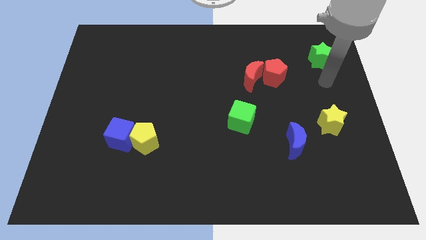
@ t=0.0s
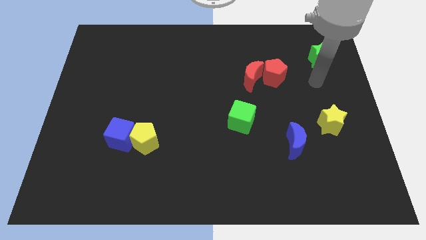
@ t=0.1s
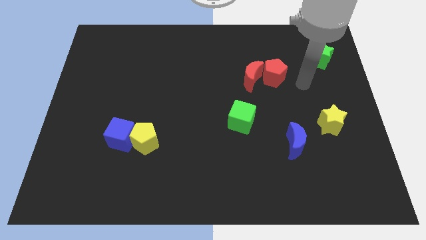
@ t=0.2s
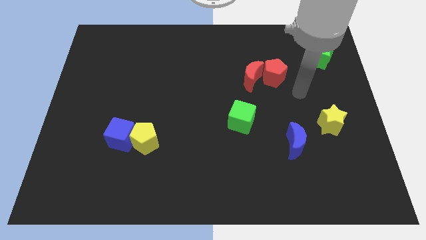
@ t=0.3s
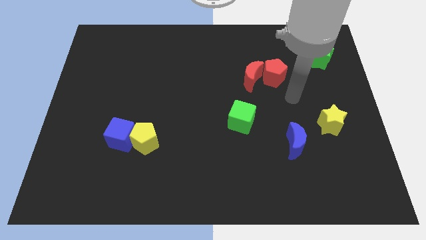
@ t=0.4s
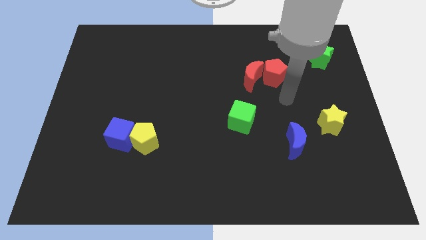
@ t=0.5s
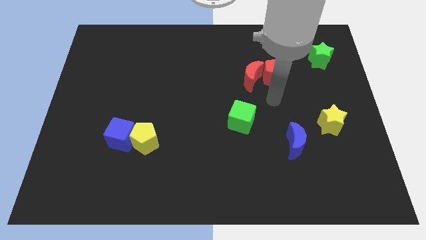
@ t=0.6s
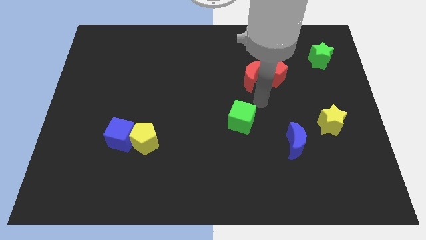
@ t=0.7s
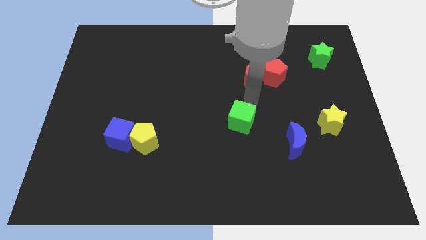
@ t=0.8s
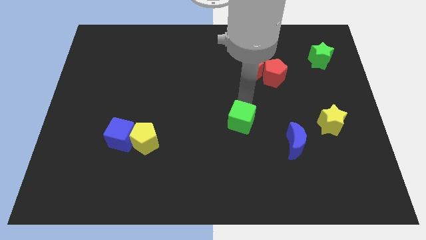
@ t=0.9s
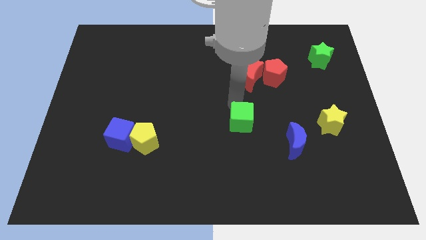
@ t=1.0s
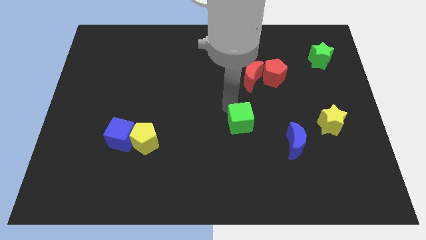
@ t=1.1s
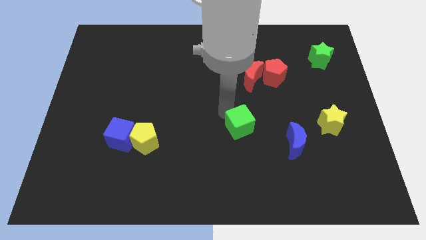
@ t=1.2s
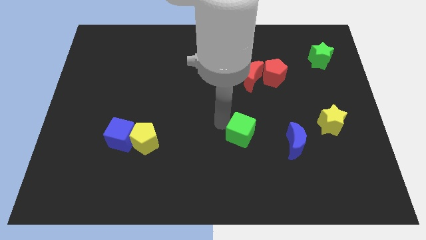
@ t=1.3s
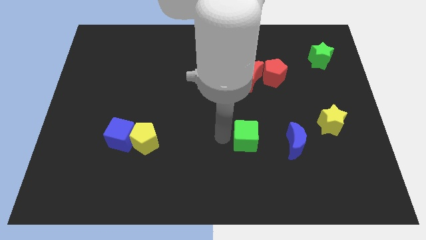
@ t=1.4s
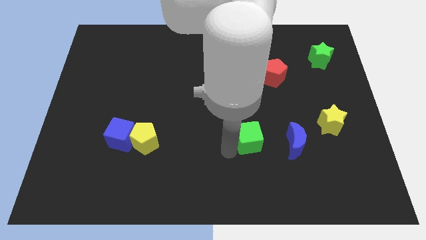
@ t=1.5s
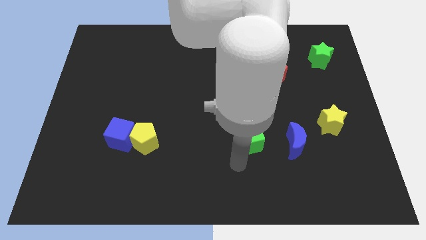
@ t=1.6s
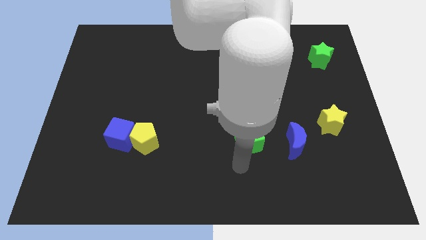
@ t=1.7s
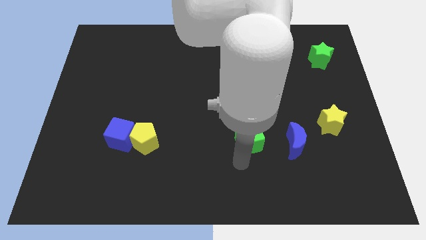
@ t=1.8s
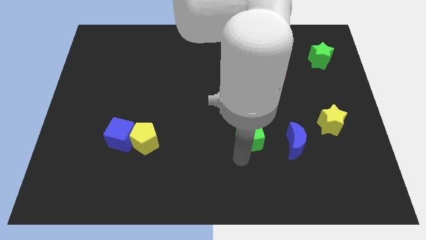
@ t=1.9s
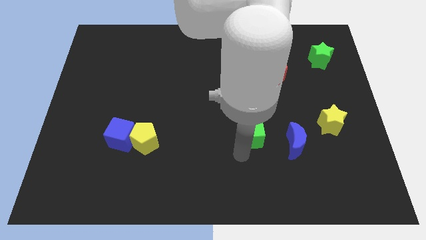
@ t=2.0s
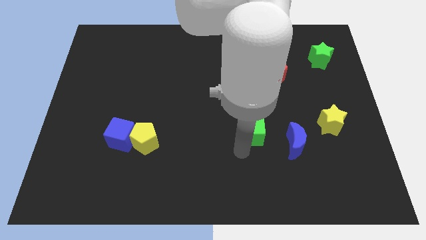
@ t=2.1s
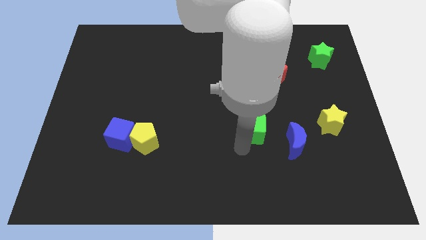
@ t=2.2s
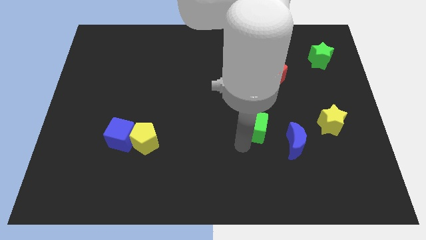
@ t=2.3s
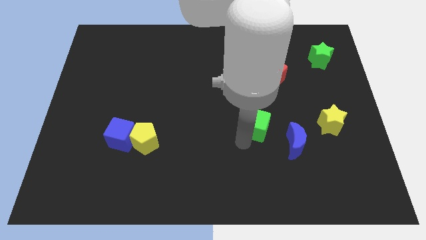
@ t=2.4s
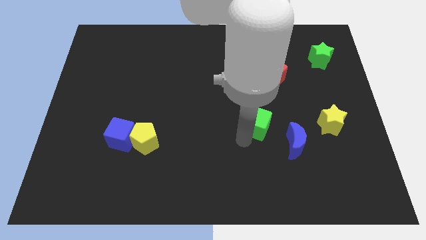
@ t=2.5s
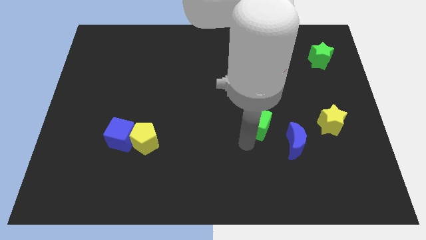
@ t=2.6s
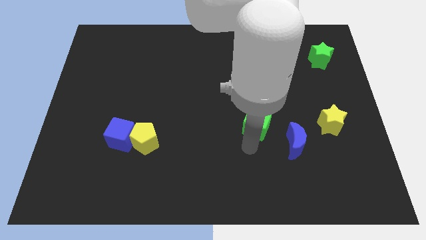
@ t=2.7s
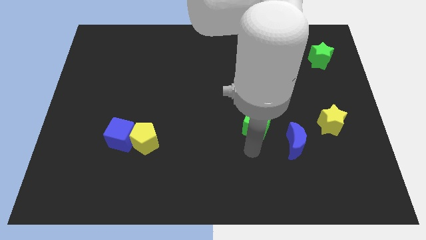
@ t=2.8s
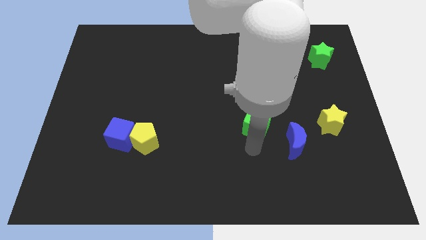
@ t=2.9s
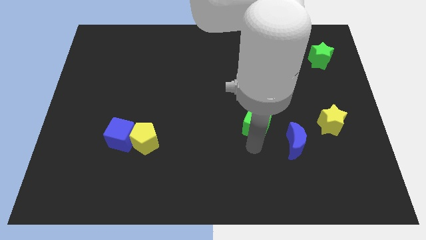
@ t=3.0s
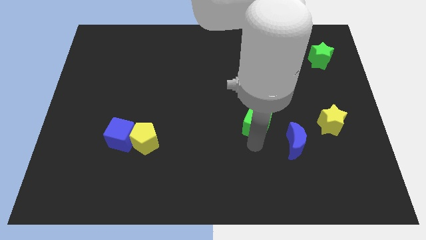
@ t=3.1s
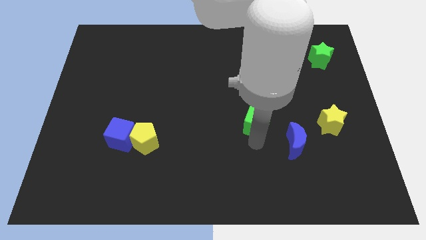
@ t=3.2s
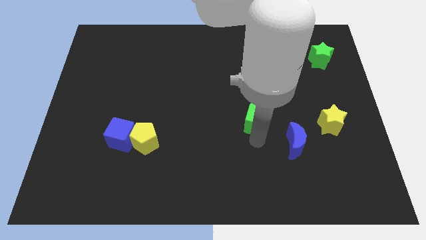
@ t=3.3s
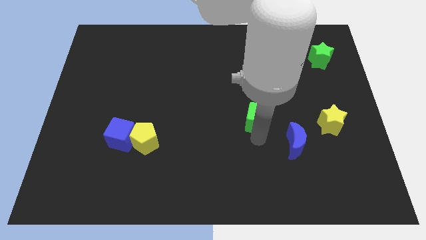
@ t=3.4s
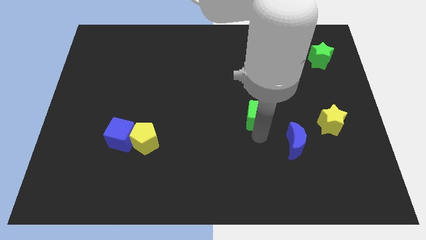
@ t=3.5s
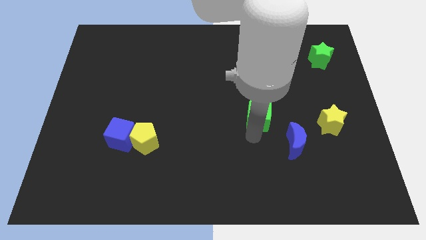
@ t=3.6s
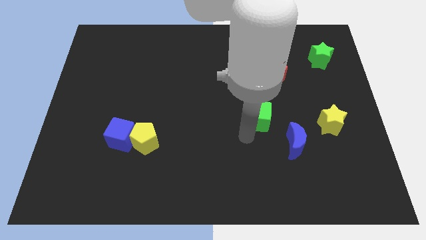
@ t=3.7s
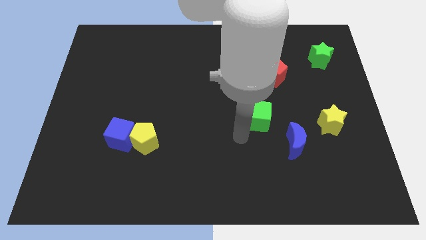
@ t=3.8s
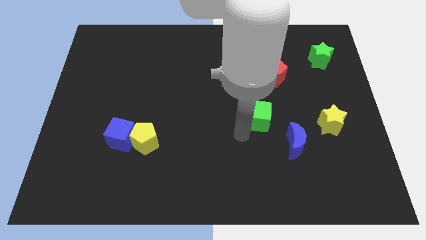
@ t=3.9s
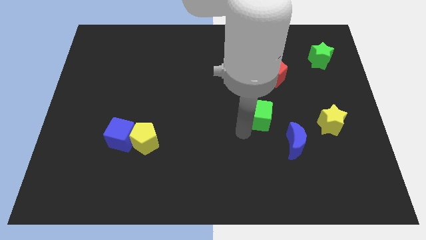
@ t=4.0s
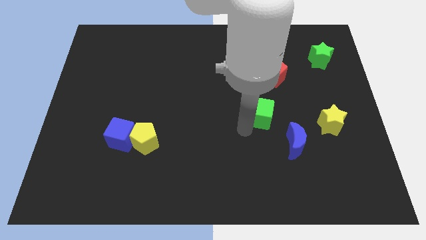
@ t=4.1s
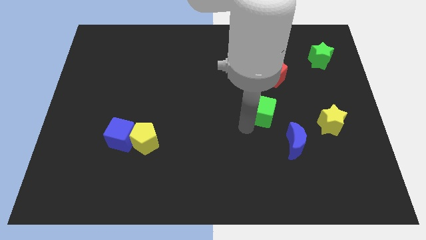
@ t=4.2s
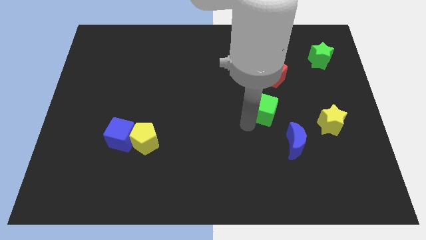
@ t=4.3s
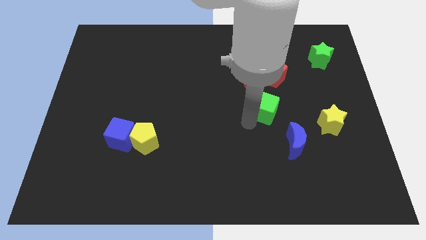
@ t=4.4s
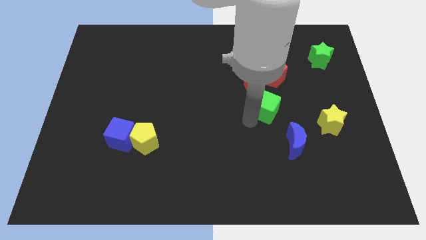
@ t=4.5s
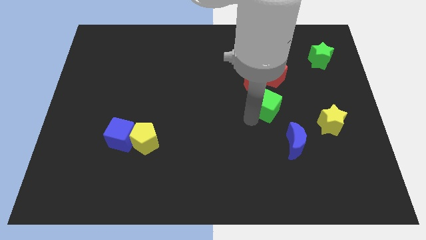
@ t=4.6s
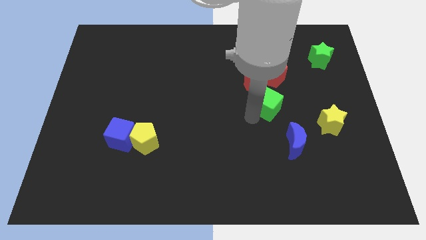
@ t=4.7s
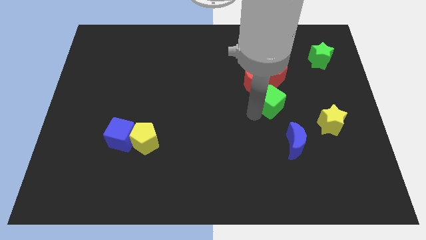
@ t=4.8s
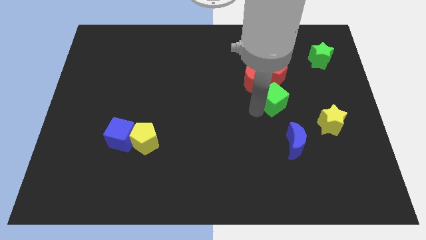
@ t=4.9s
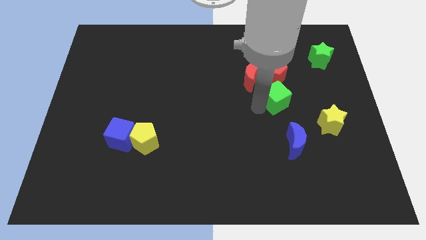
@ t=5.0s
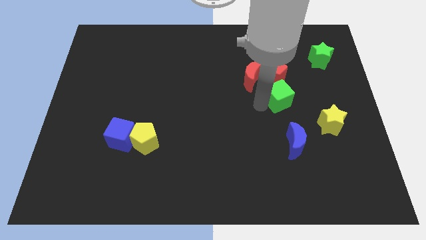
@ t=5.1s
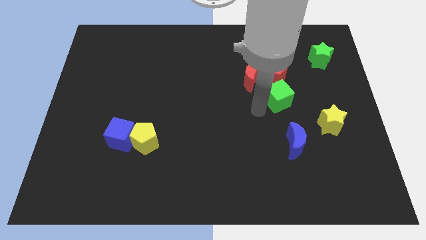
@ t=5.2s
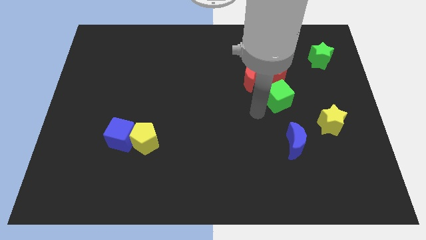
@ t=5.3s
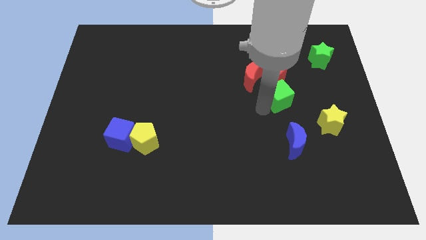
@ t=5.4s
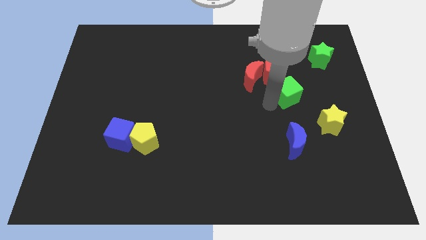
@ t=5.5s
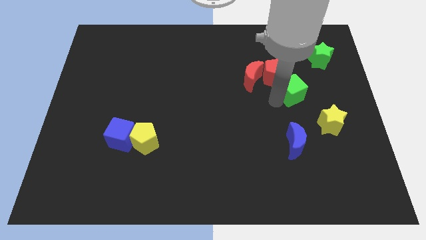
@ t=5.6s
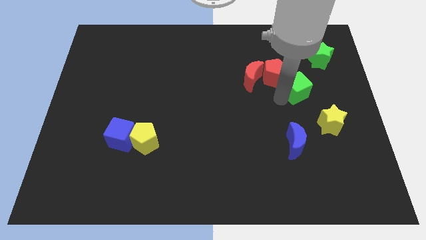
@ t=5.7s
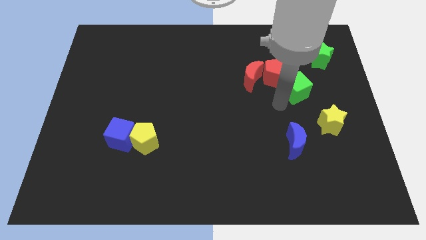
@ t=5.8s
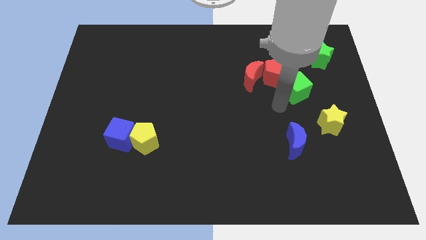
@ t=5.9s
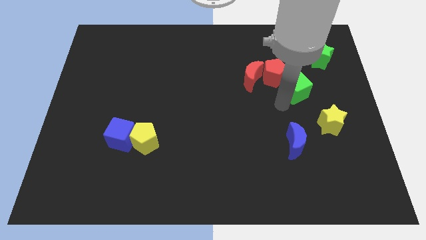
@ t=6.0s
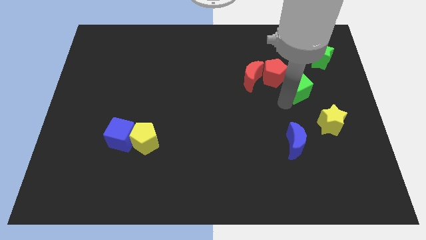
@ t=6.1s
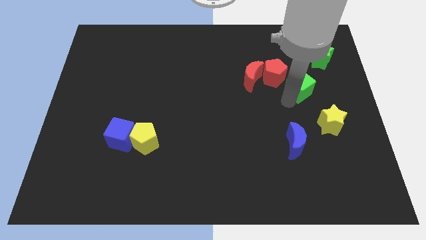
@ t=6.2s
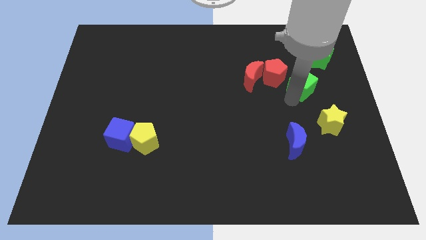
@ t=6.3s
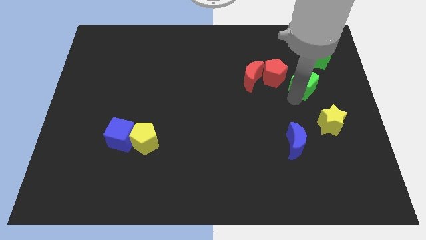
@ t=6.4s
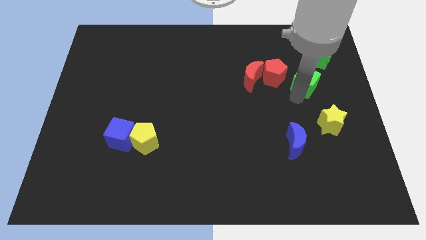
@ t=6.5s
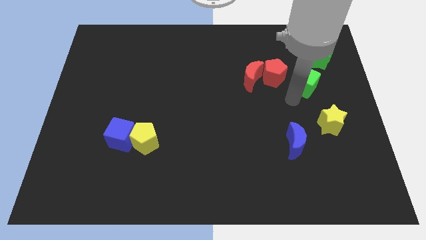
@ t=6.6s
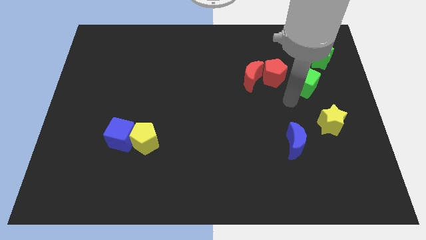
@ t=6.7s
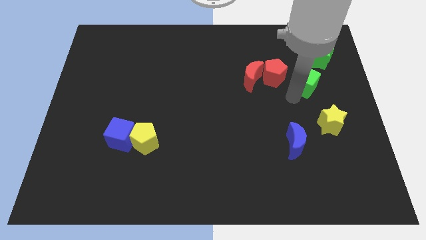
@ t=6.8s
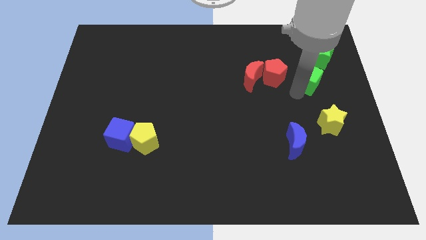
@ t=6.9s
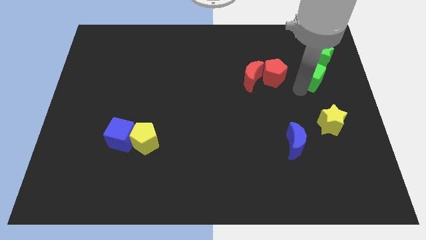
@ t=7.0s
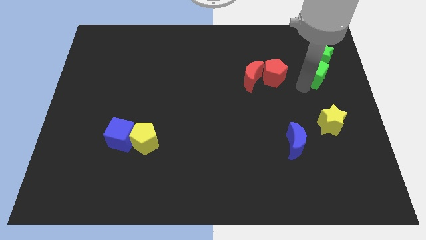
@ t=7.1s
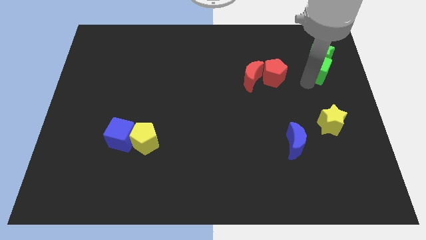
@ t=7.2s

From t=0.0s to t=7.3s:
push the green cube to the green star
